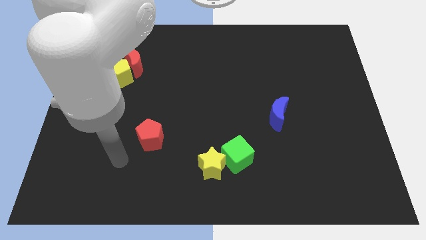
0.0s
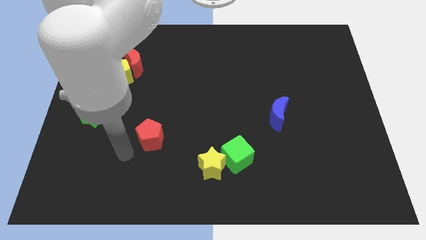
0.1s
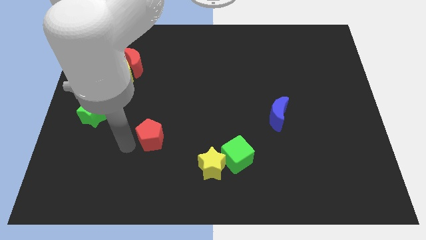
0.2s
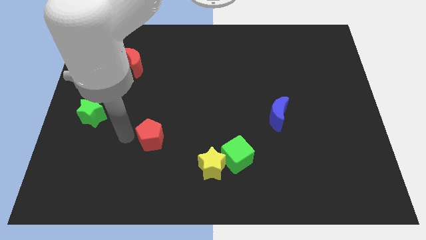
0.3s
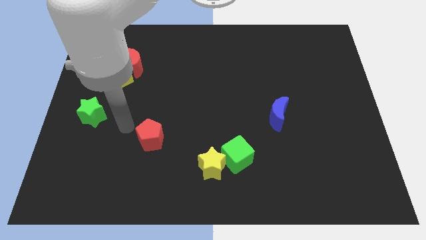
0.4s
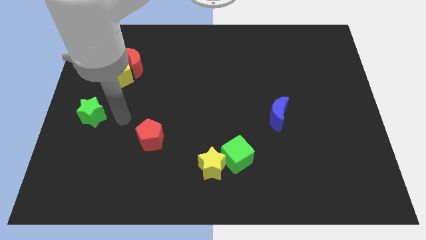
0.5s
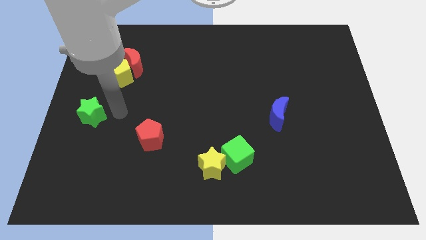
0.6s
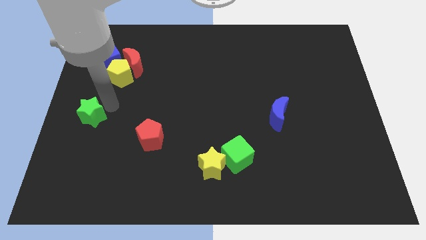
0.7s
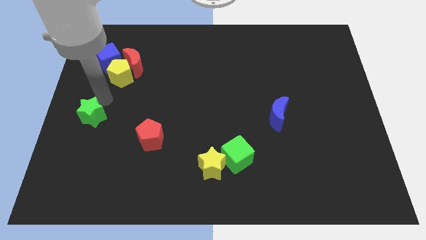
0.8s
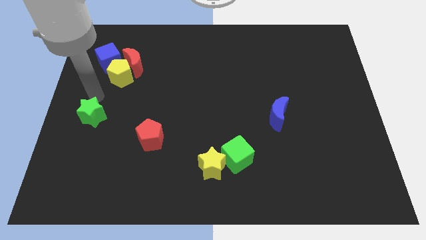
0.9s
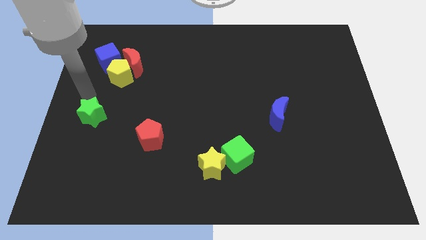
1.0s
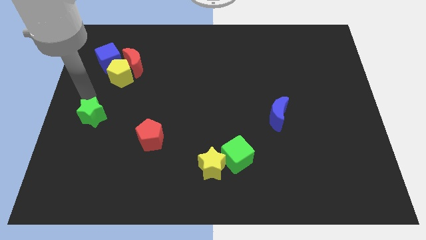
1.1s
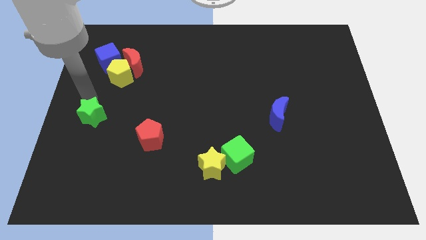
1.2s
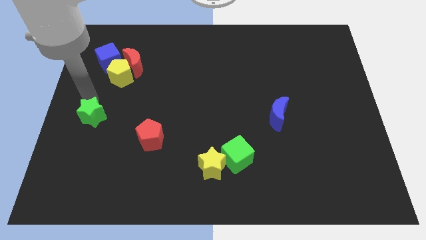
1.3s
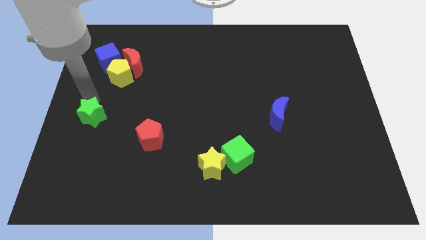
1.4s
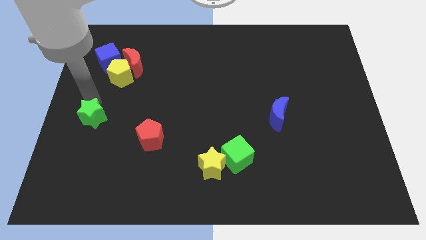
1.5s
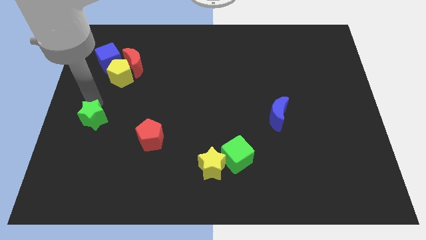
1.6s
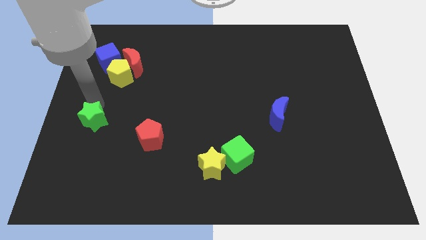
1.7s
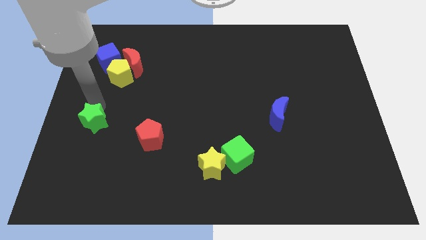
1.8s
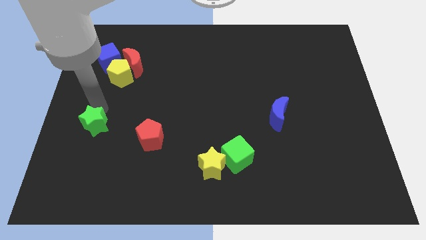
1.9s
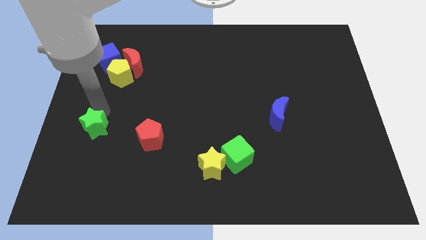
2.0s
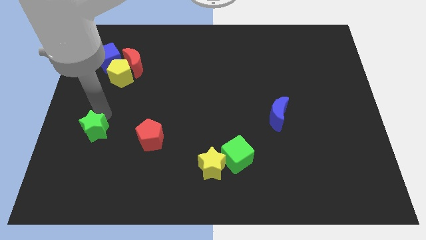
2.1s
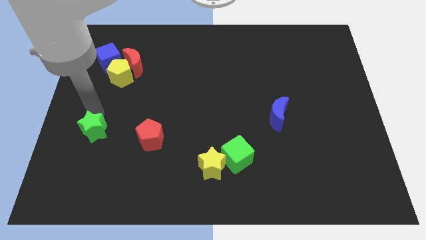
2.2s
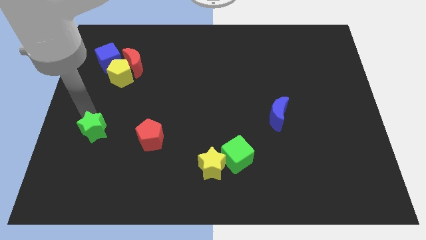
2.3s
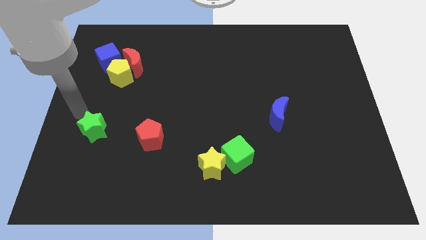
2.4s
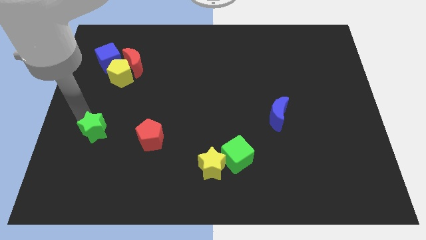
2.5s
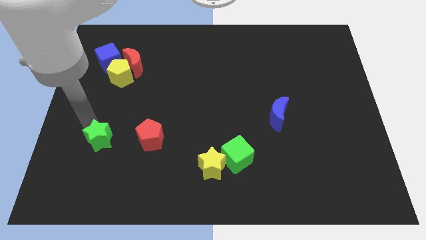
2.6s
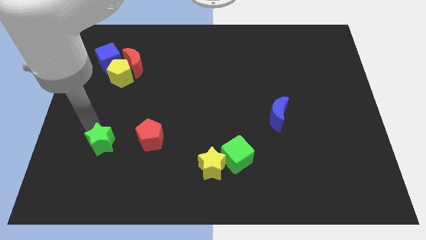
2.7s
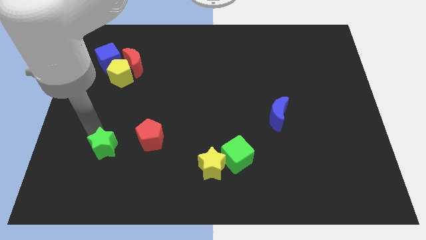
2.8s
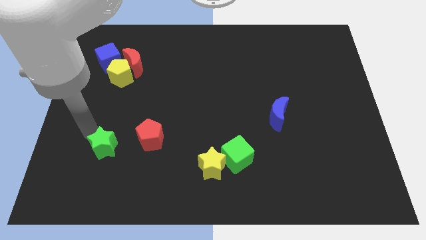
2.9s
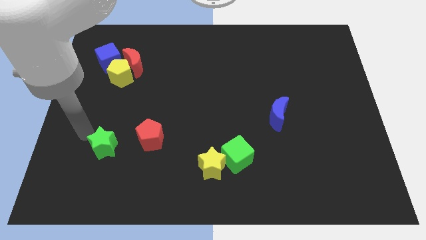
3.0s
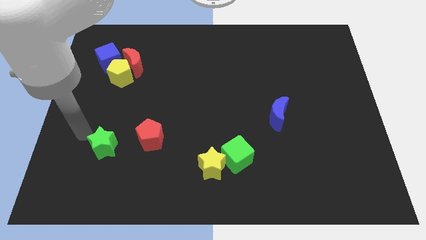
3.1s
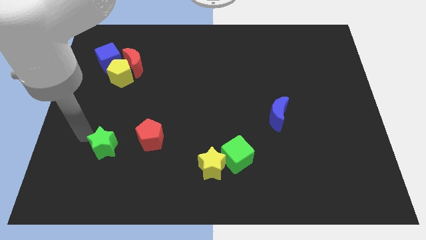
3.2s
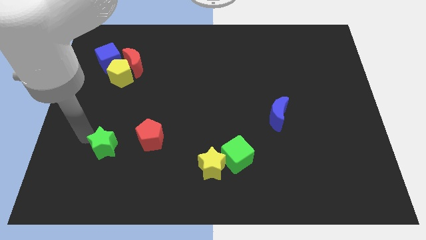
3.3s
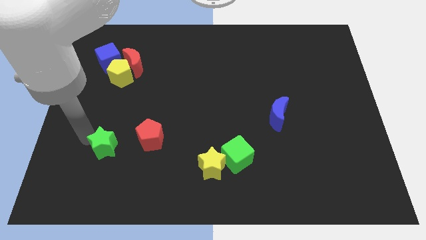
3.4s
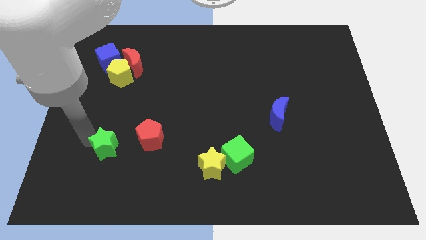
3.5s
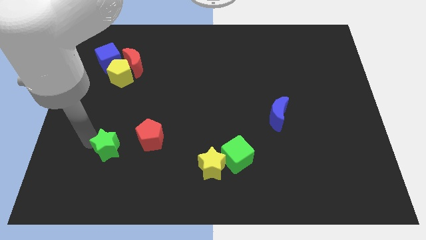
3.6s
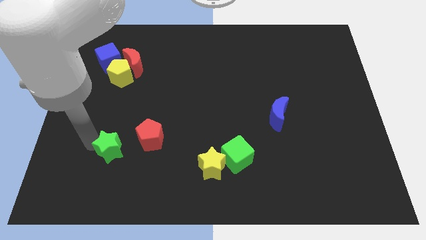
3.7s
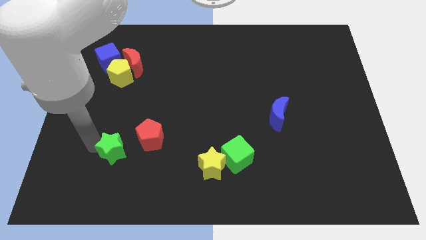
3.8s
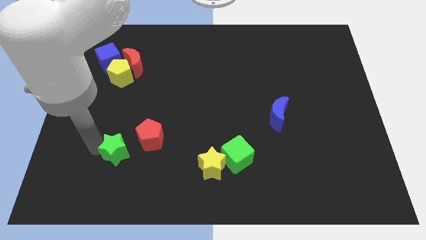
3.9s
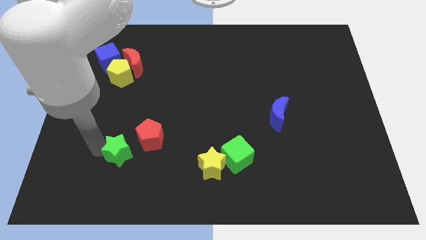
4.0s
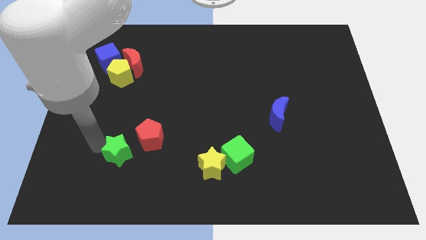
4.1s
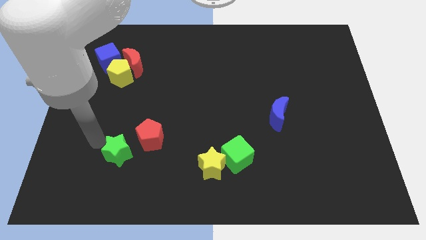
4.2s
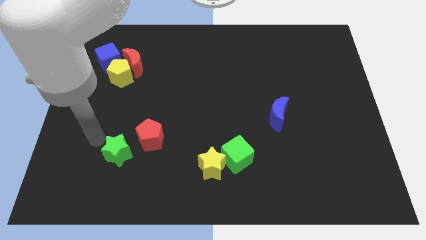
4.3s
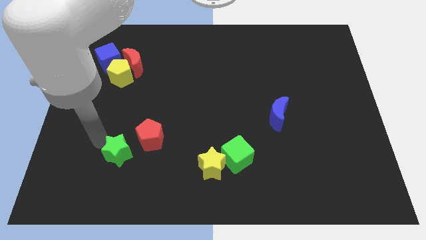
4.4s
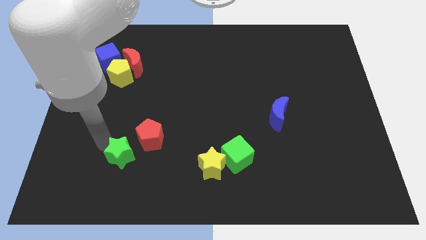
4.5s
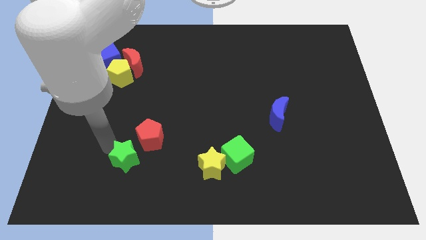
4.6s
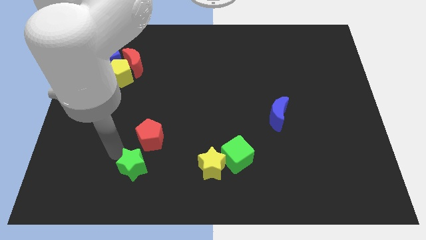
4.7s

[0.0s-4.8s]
move the green star to the left side of the yellow star

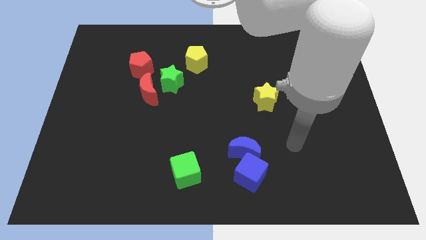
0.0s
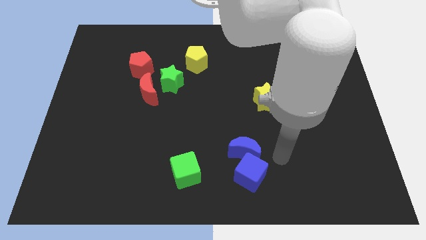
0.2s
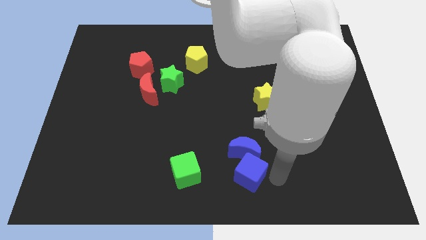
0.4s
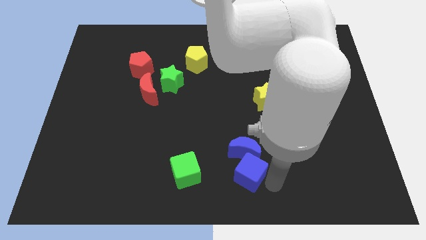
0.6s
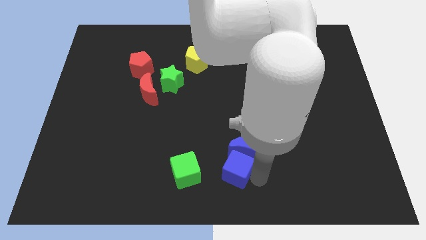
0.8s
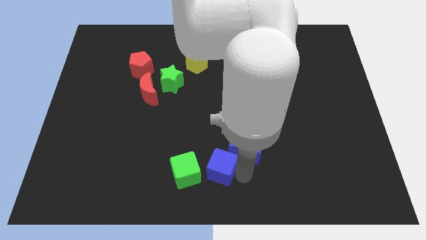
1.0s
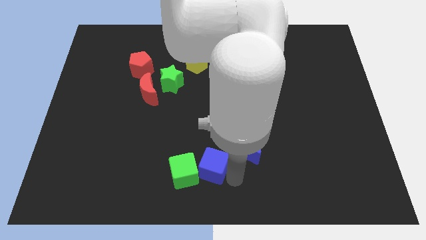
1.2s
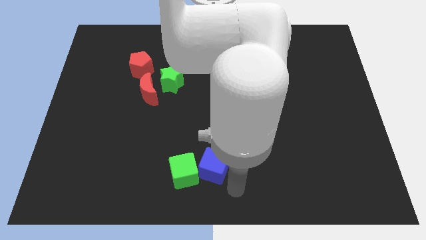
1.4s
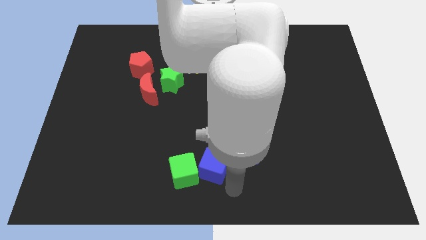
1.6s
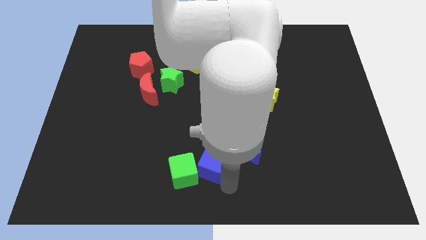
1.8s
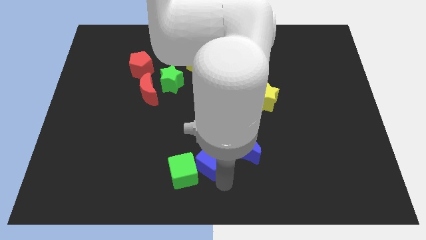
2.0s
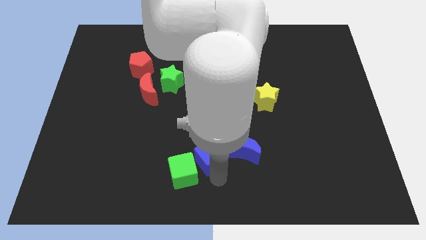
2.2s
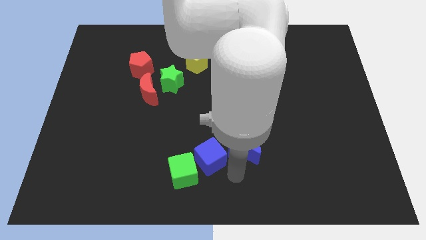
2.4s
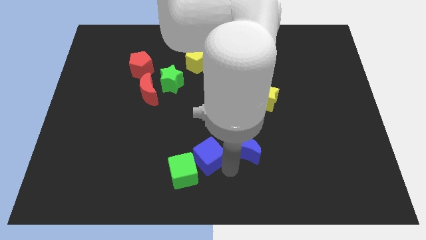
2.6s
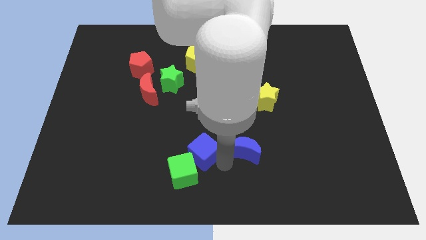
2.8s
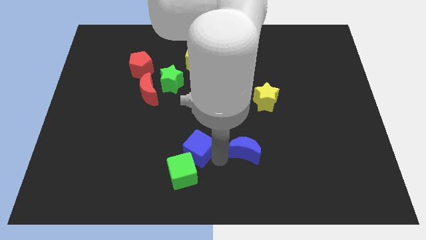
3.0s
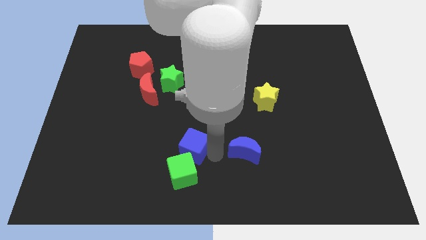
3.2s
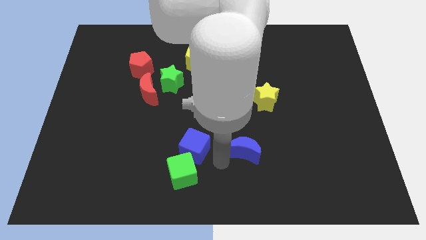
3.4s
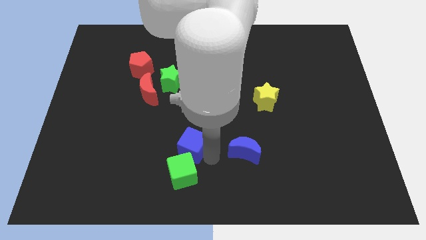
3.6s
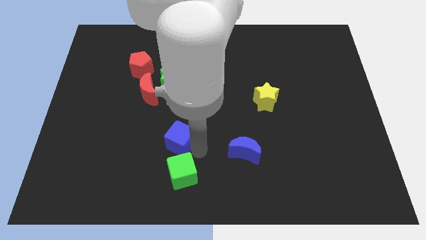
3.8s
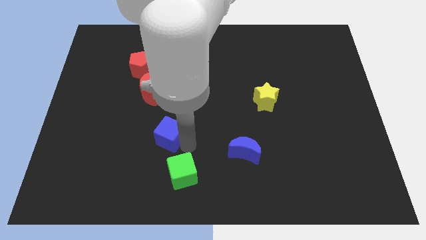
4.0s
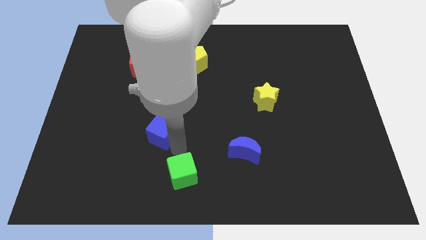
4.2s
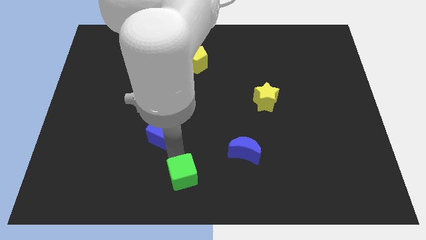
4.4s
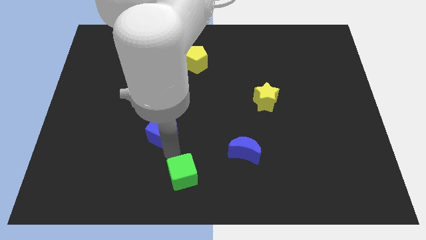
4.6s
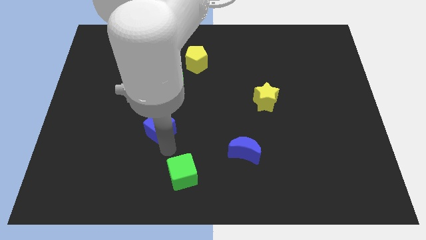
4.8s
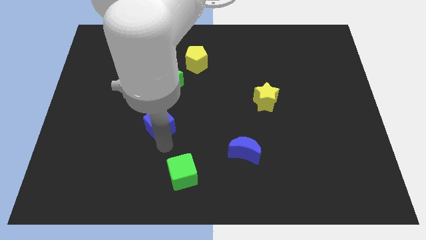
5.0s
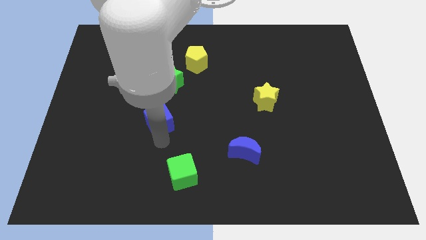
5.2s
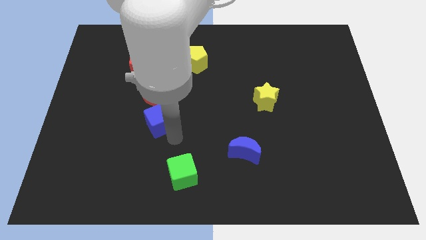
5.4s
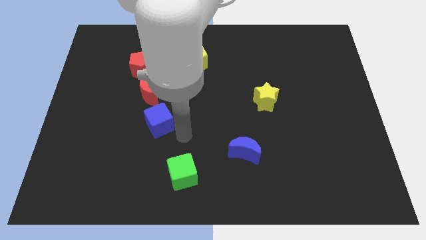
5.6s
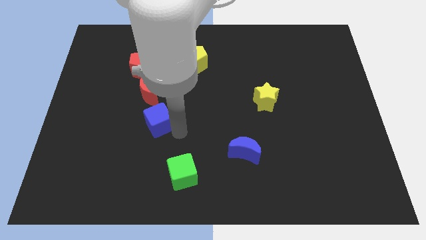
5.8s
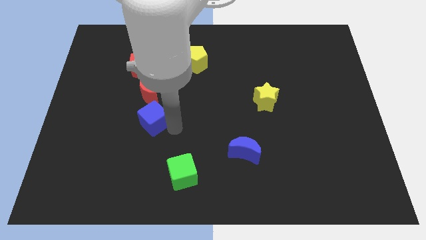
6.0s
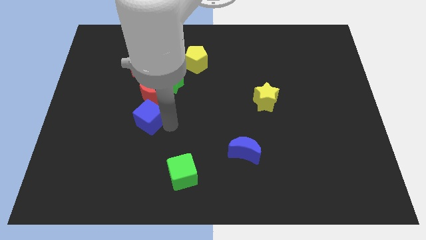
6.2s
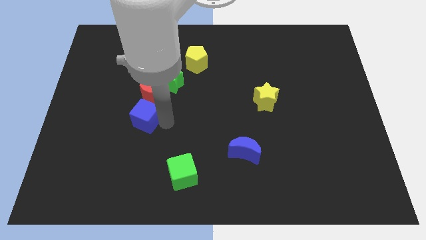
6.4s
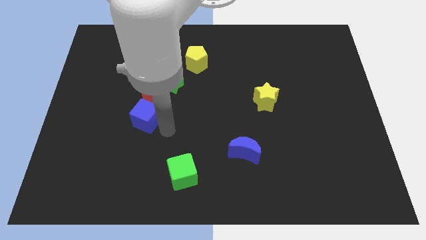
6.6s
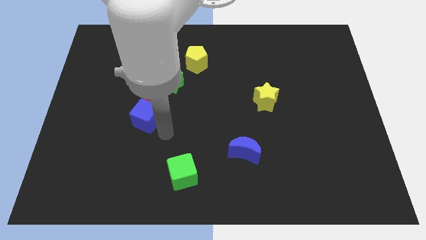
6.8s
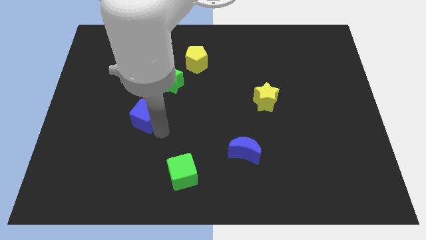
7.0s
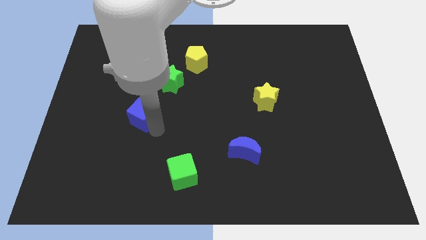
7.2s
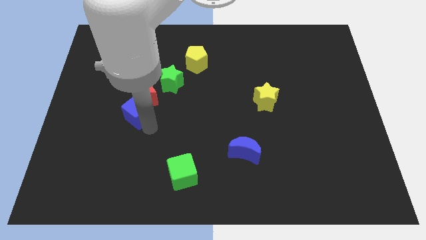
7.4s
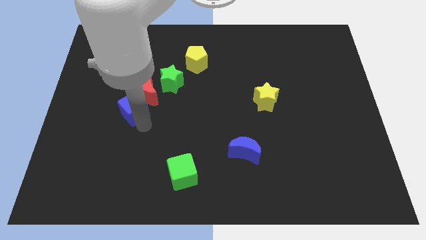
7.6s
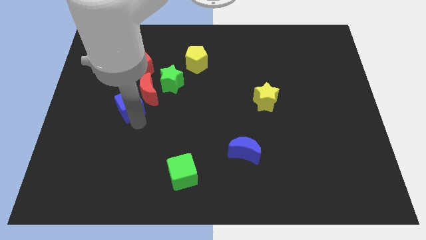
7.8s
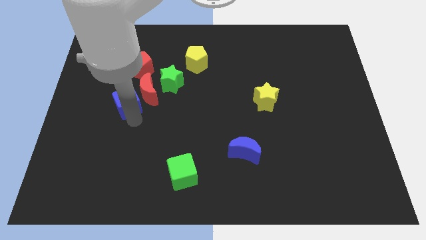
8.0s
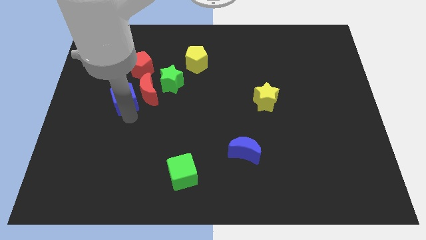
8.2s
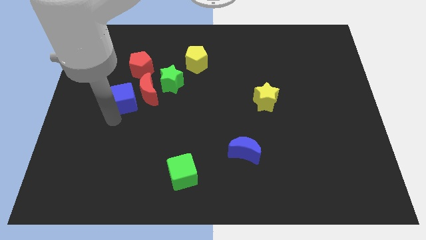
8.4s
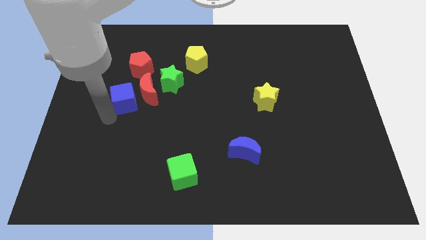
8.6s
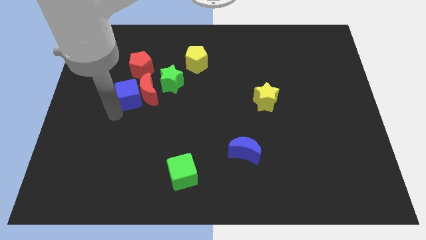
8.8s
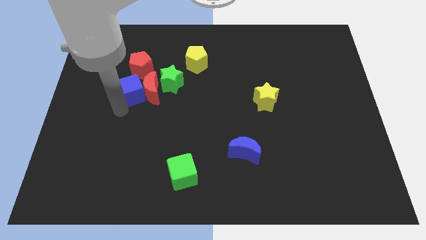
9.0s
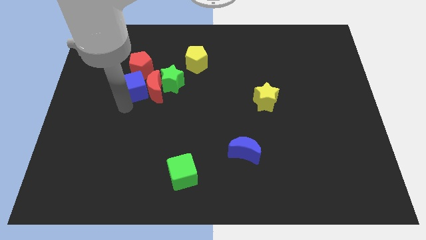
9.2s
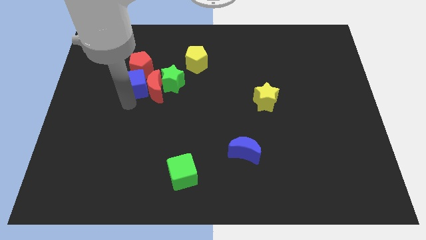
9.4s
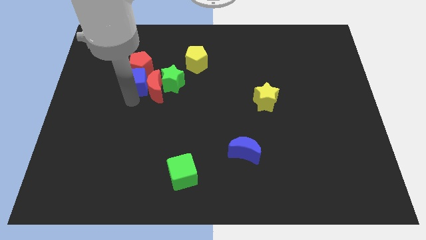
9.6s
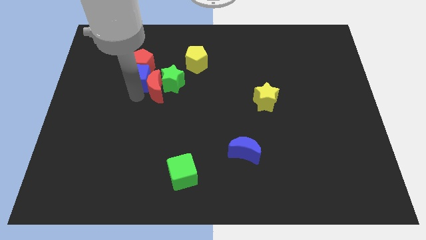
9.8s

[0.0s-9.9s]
slide the blue cube above the red moon
